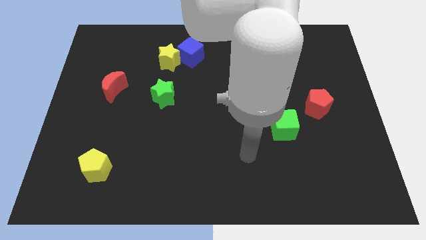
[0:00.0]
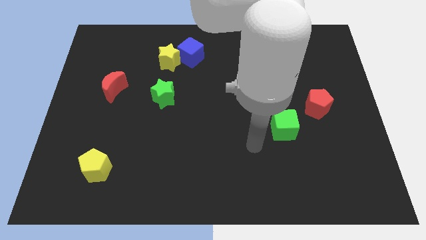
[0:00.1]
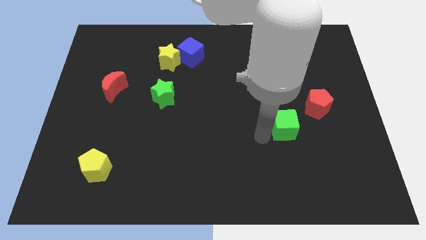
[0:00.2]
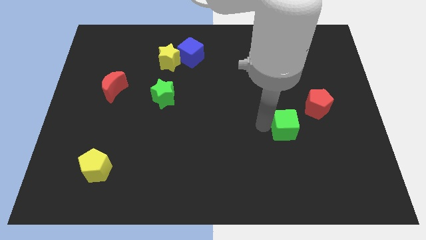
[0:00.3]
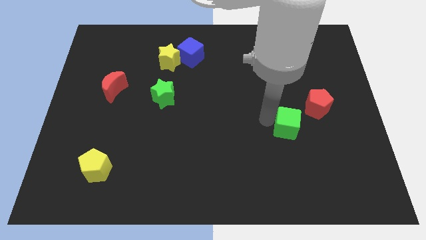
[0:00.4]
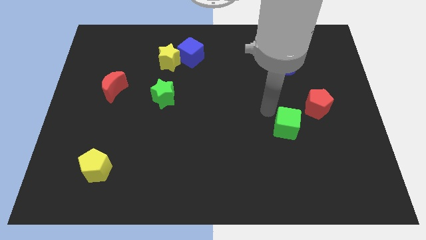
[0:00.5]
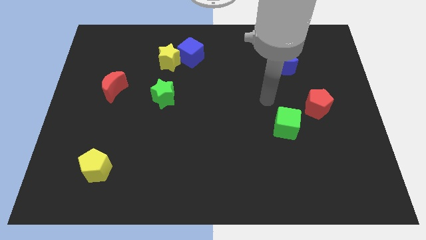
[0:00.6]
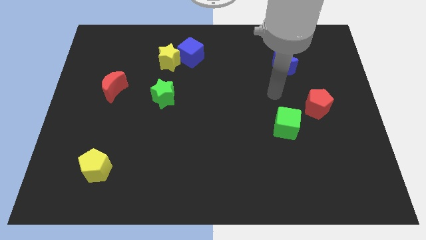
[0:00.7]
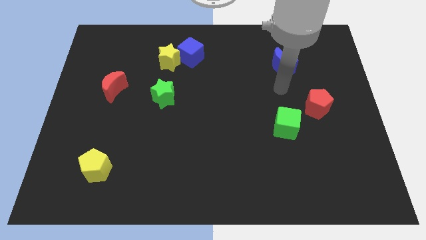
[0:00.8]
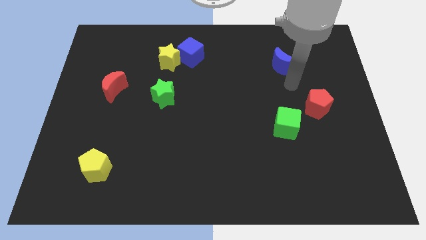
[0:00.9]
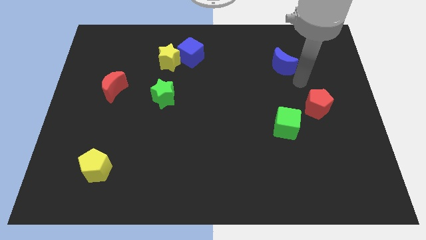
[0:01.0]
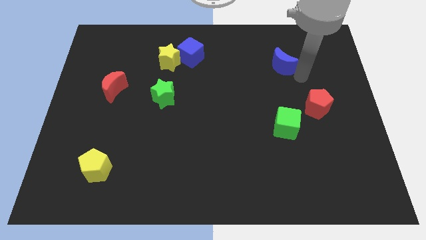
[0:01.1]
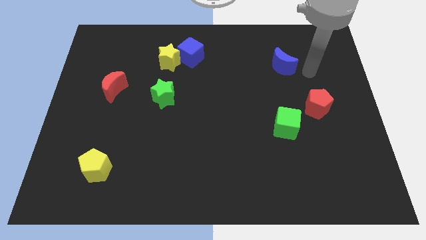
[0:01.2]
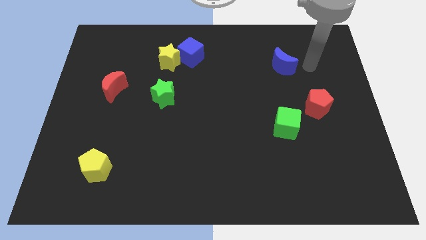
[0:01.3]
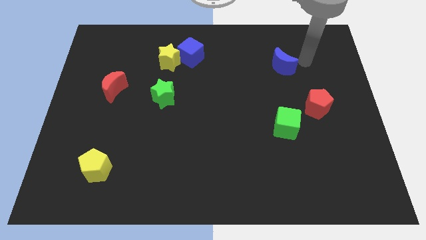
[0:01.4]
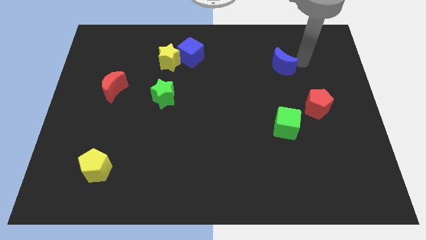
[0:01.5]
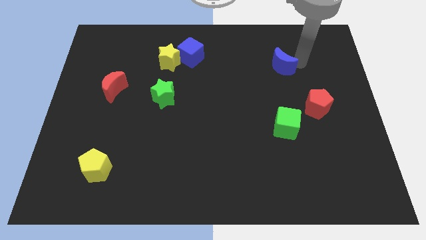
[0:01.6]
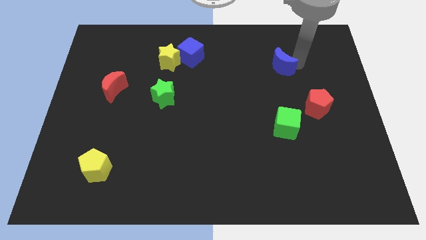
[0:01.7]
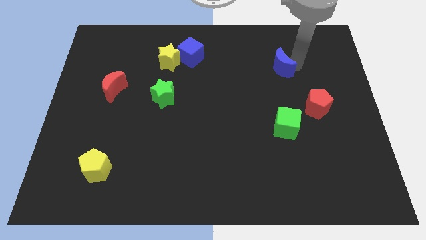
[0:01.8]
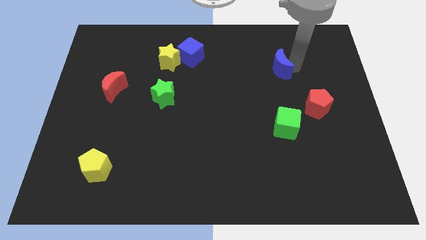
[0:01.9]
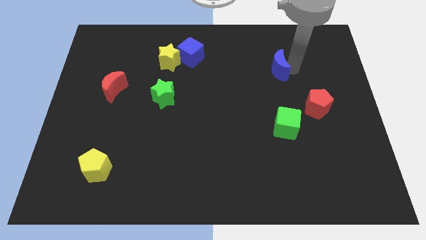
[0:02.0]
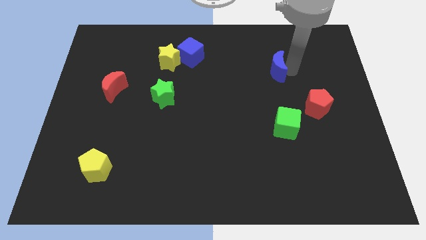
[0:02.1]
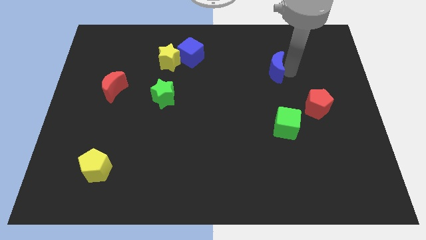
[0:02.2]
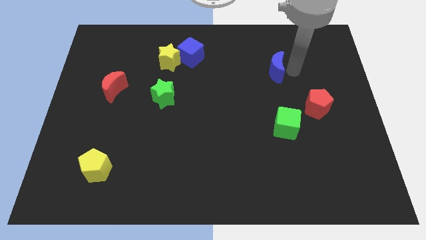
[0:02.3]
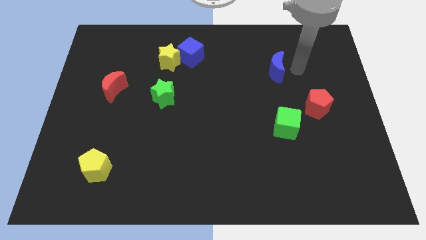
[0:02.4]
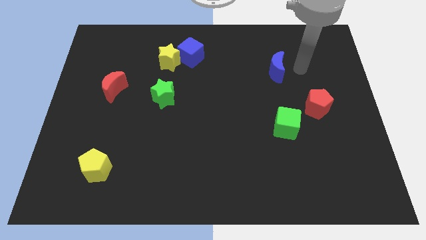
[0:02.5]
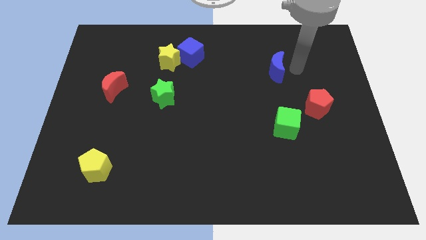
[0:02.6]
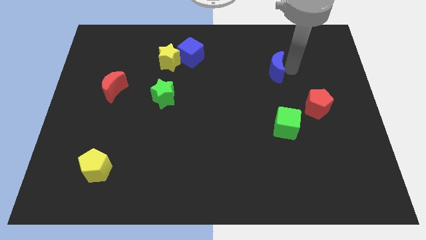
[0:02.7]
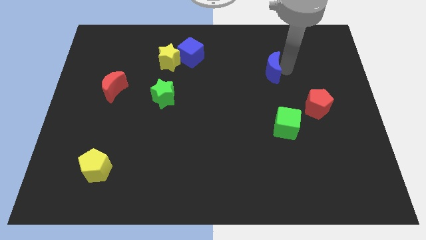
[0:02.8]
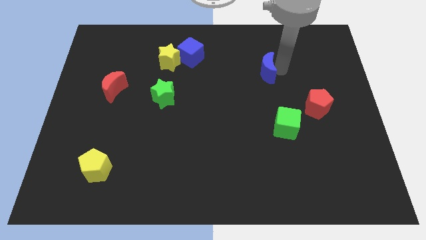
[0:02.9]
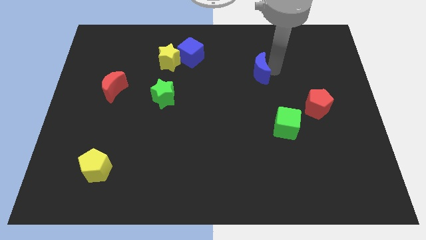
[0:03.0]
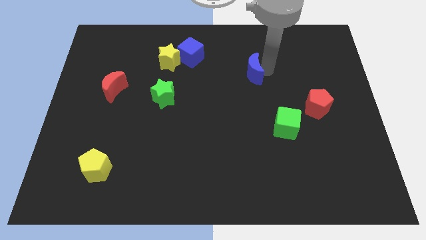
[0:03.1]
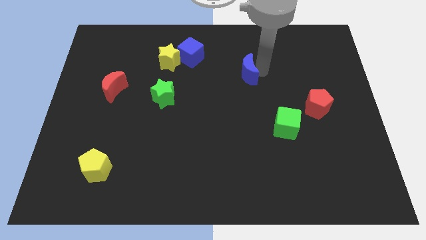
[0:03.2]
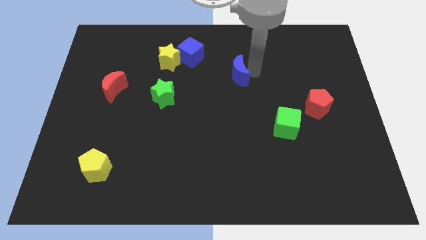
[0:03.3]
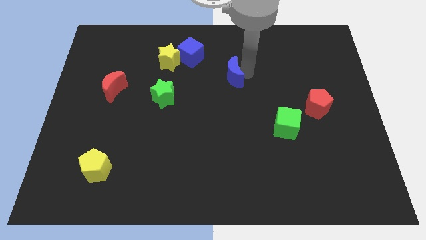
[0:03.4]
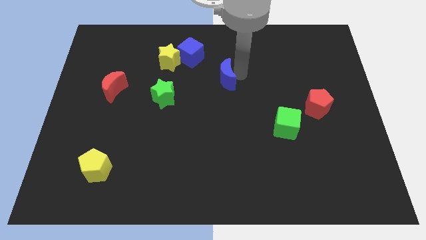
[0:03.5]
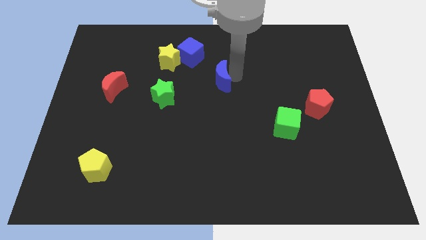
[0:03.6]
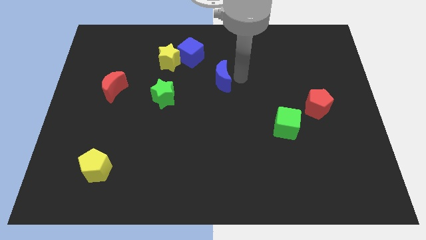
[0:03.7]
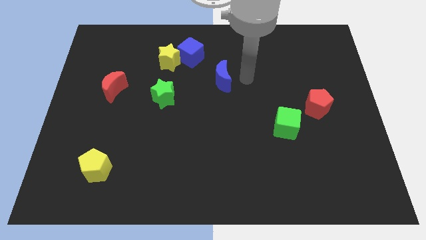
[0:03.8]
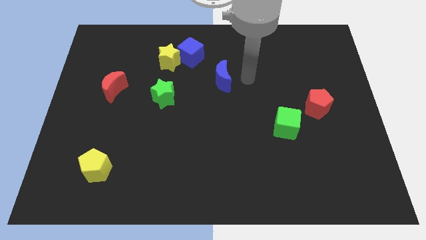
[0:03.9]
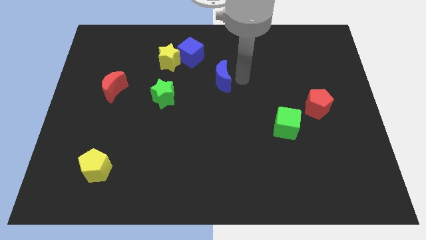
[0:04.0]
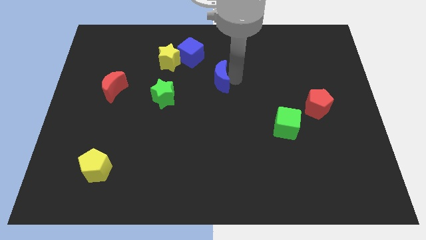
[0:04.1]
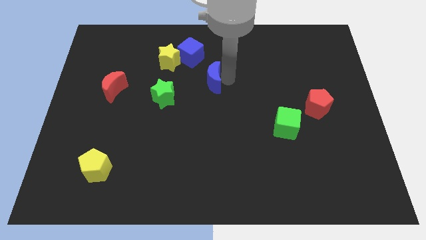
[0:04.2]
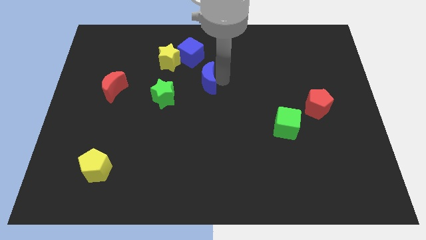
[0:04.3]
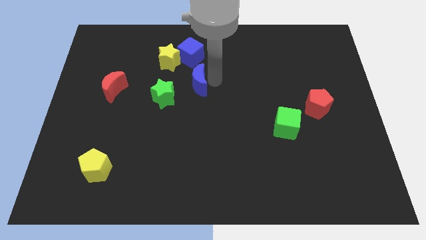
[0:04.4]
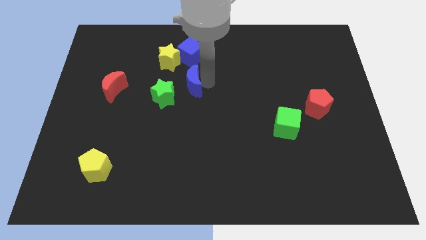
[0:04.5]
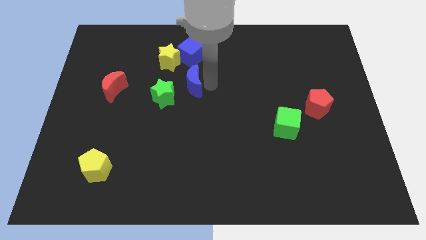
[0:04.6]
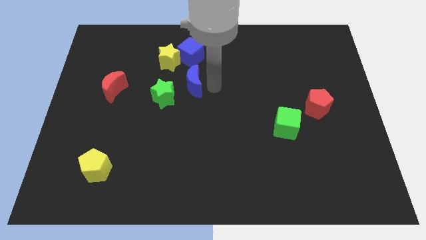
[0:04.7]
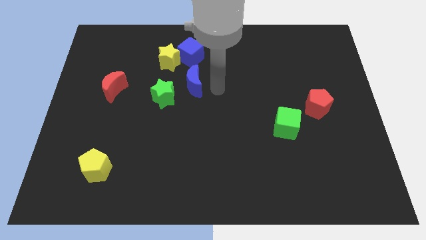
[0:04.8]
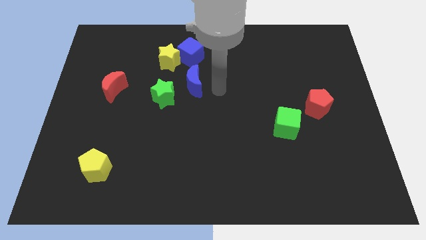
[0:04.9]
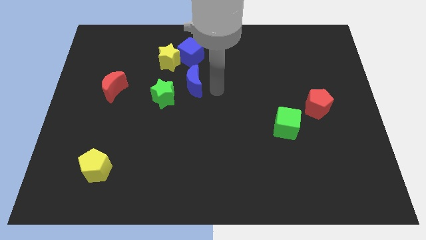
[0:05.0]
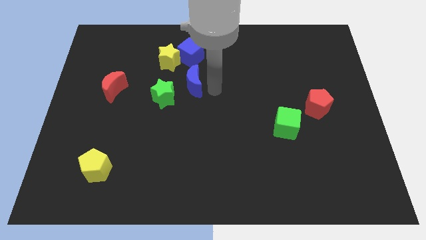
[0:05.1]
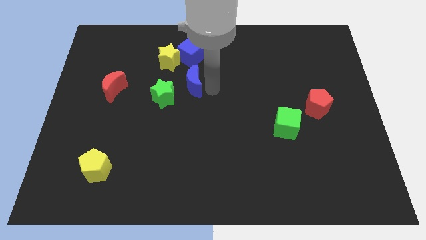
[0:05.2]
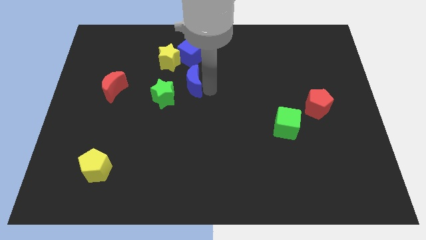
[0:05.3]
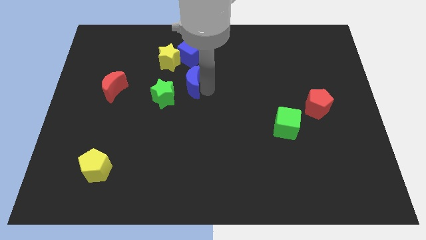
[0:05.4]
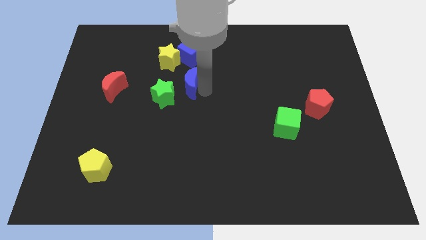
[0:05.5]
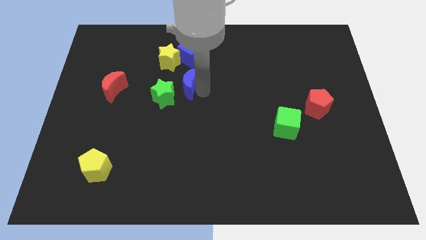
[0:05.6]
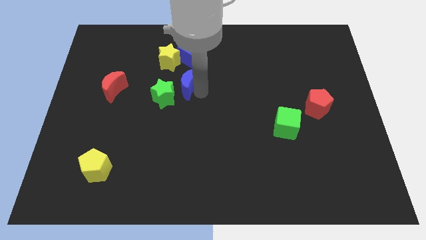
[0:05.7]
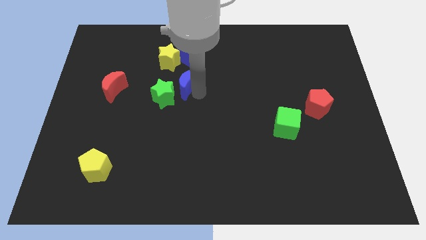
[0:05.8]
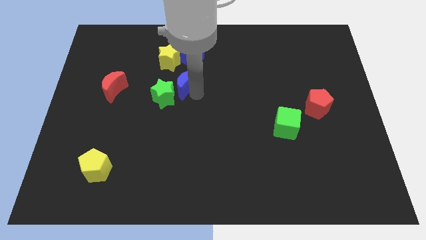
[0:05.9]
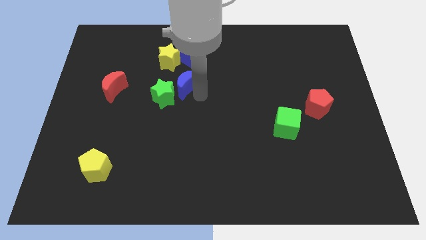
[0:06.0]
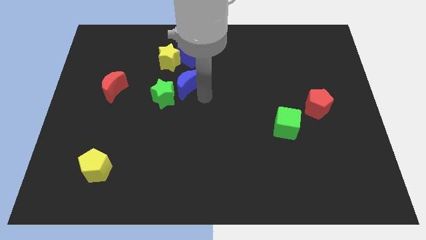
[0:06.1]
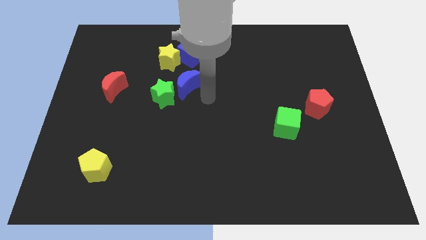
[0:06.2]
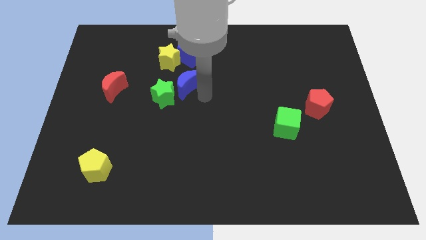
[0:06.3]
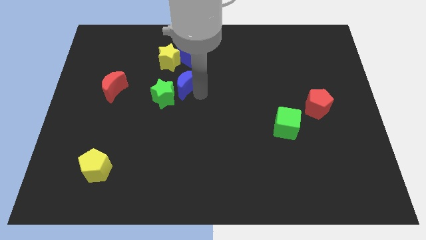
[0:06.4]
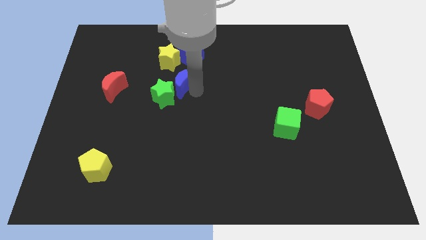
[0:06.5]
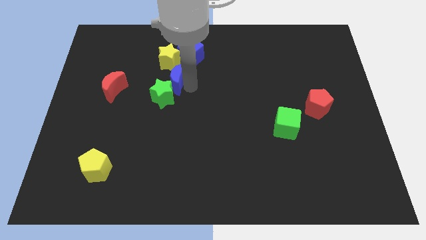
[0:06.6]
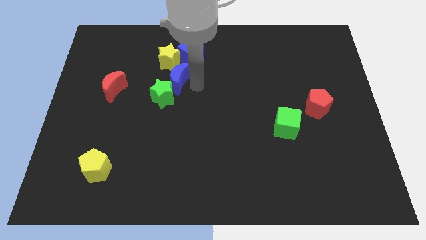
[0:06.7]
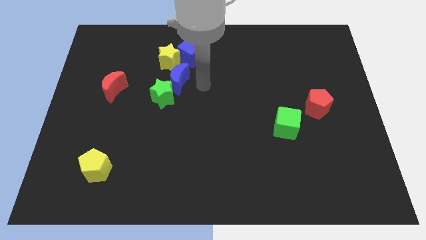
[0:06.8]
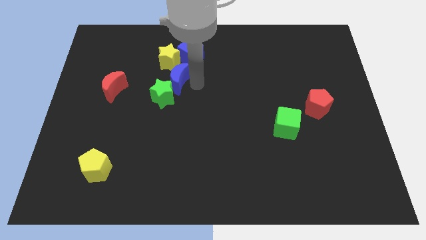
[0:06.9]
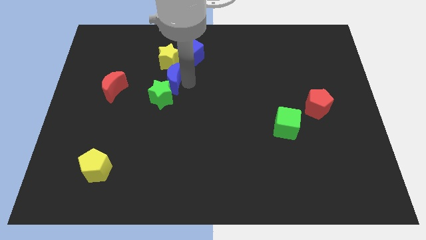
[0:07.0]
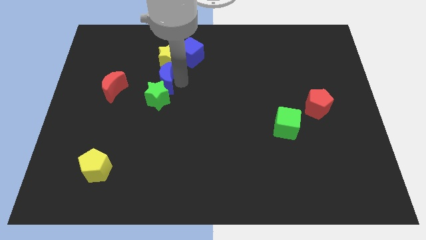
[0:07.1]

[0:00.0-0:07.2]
move the blue moon to the bottom left side of the yellow star
